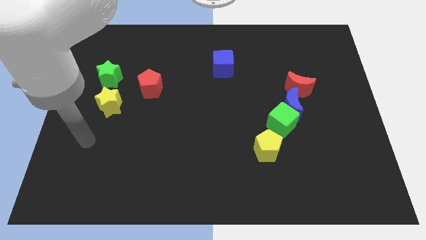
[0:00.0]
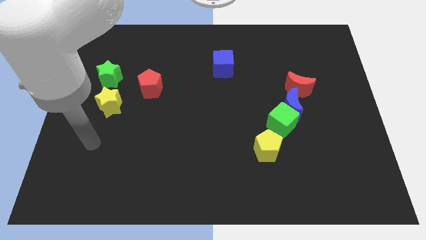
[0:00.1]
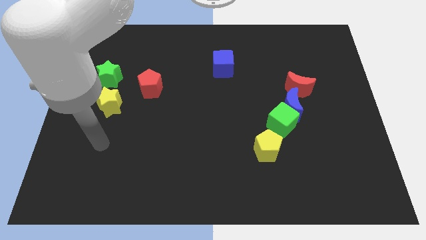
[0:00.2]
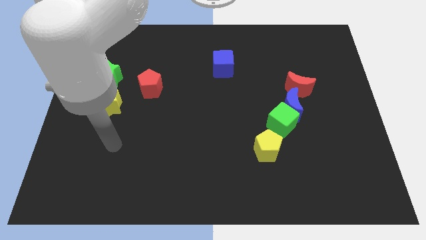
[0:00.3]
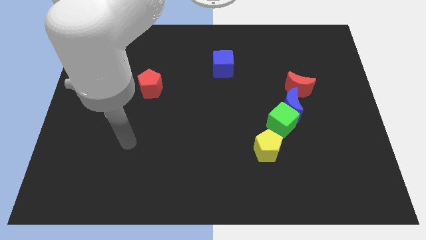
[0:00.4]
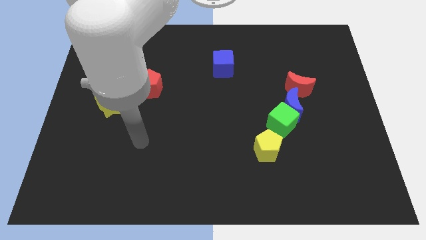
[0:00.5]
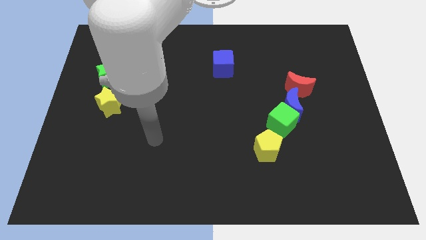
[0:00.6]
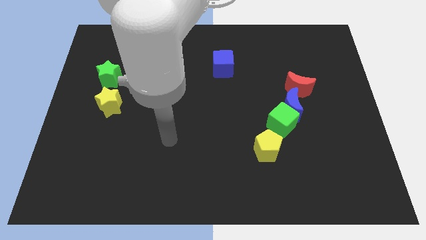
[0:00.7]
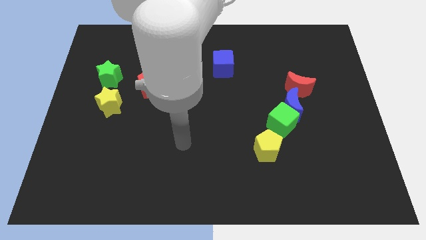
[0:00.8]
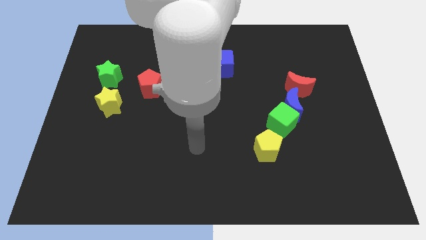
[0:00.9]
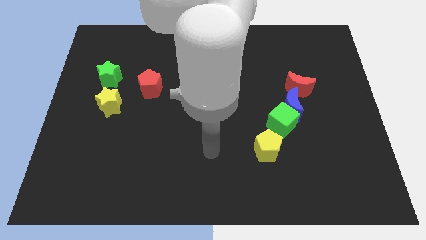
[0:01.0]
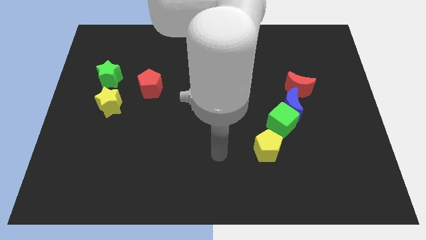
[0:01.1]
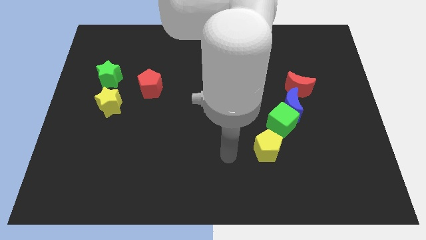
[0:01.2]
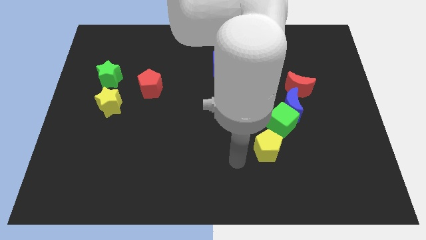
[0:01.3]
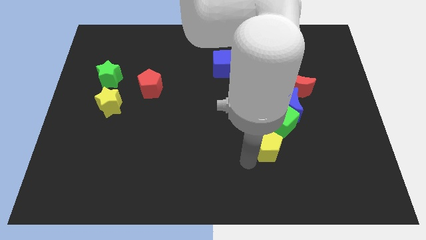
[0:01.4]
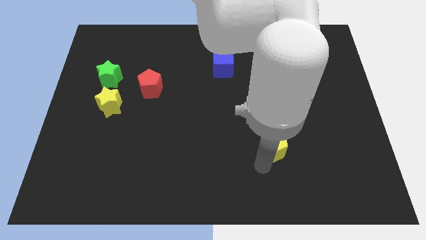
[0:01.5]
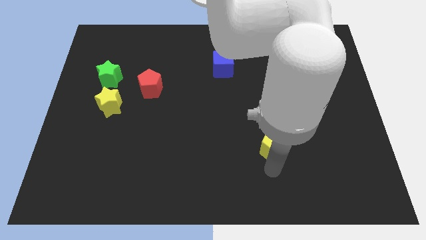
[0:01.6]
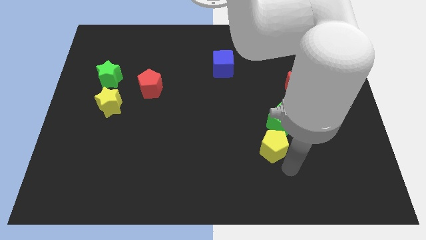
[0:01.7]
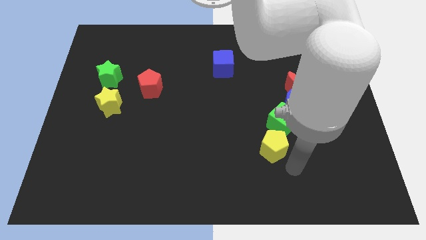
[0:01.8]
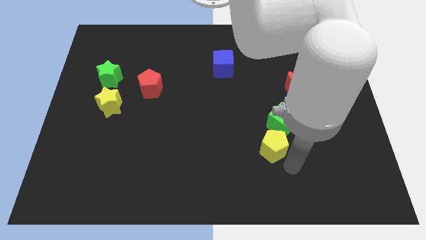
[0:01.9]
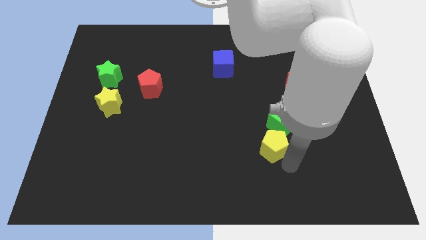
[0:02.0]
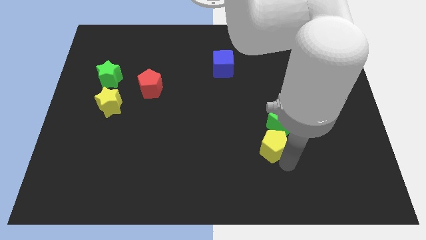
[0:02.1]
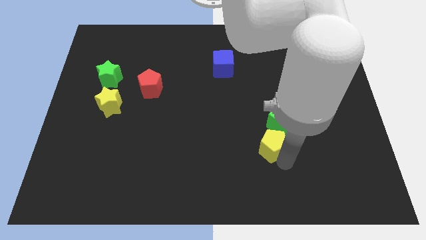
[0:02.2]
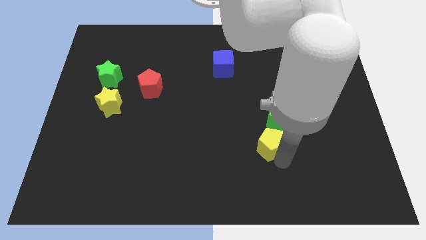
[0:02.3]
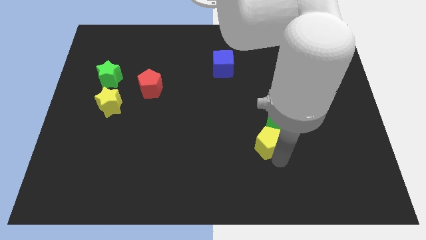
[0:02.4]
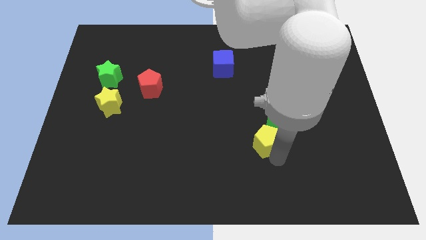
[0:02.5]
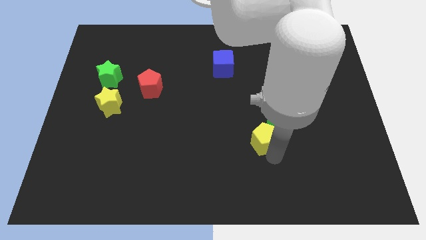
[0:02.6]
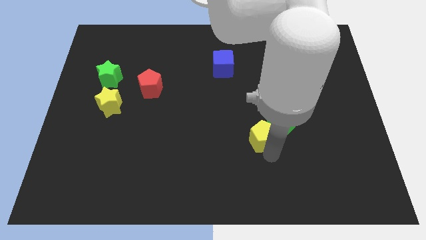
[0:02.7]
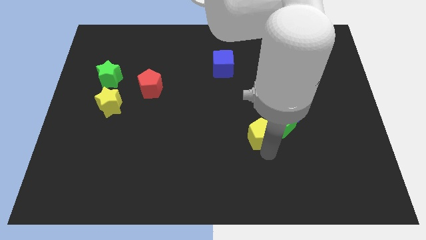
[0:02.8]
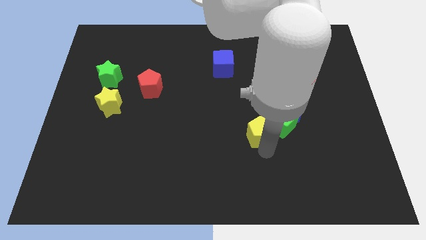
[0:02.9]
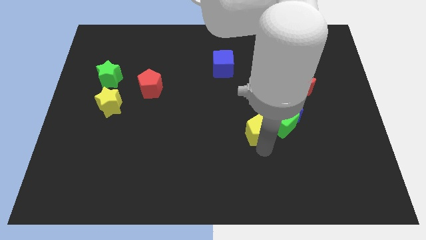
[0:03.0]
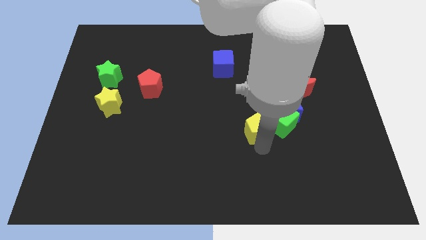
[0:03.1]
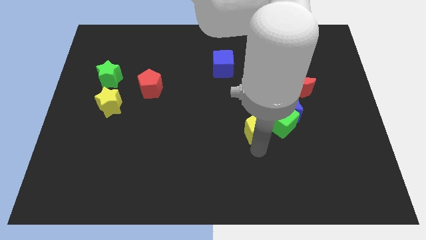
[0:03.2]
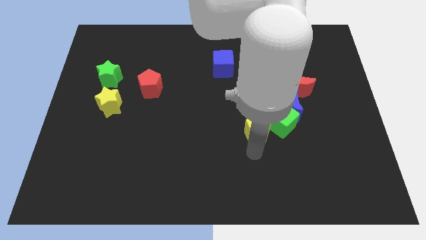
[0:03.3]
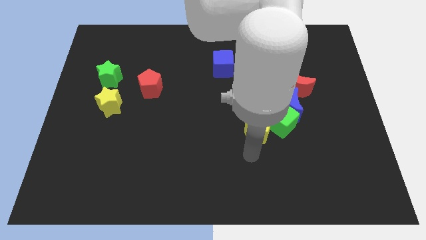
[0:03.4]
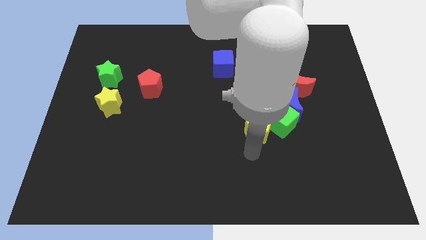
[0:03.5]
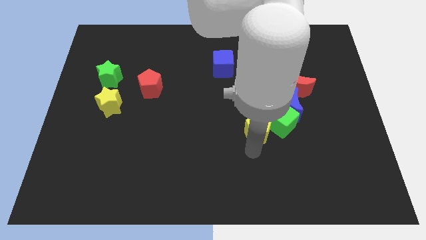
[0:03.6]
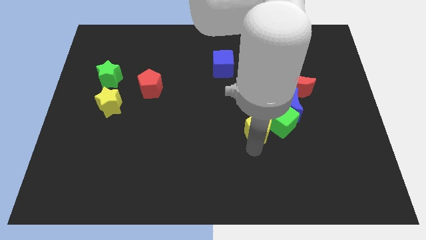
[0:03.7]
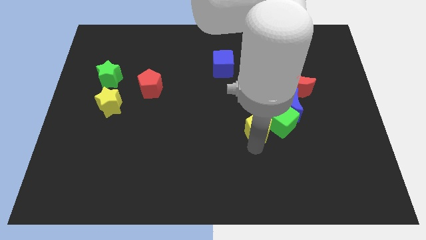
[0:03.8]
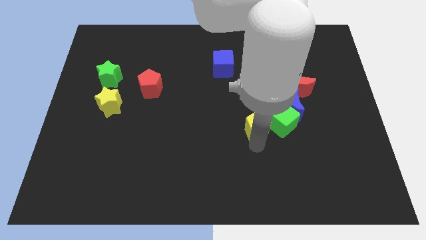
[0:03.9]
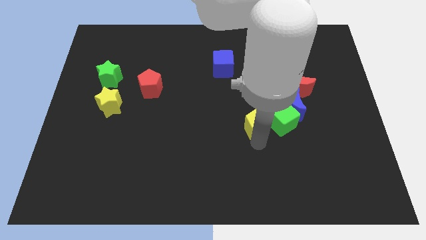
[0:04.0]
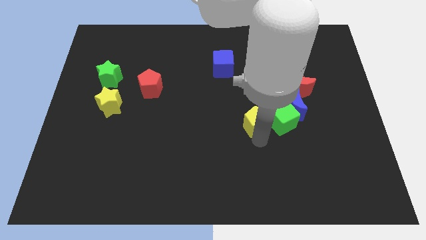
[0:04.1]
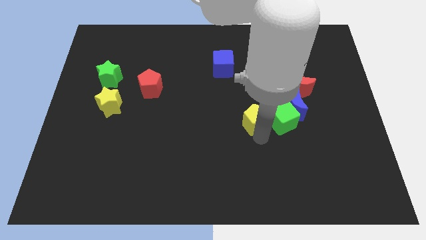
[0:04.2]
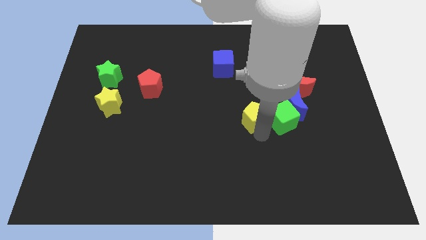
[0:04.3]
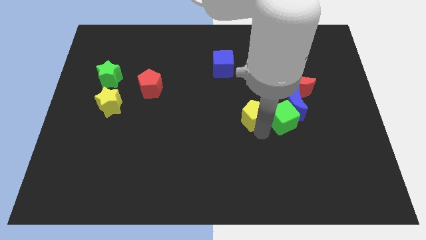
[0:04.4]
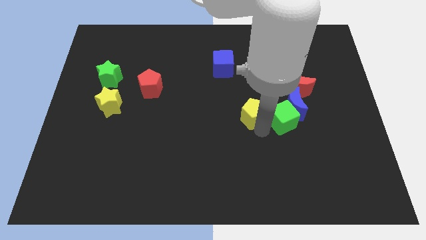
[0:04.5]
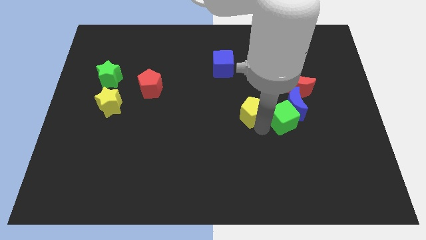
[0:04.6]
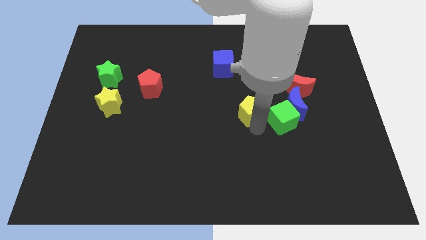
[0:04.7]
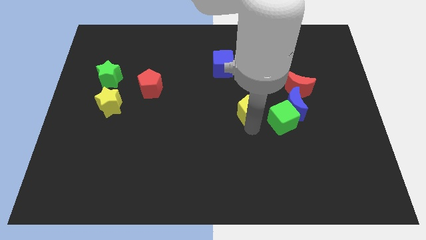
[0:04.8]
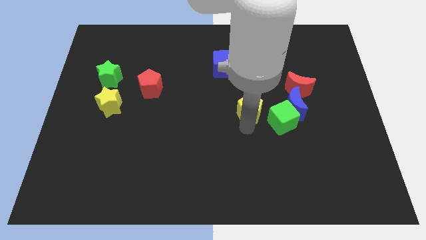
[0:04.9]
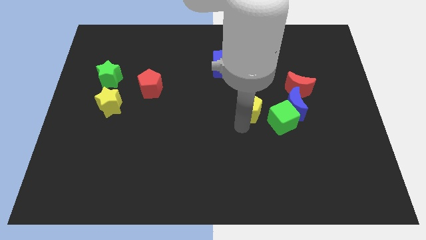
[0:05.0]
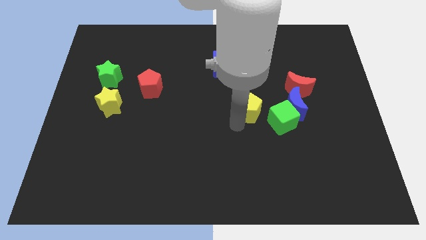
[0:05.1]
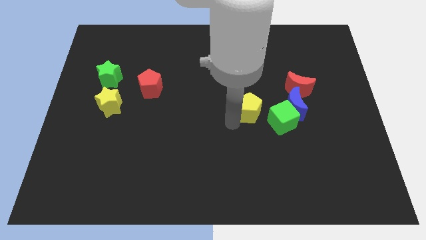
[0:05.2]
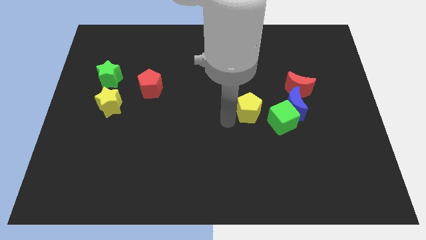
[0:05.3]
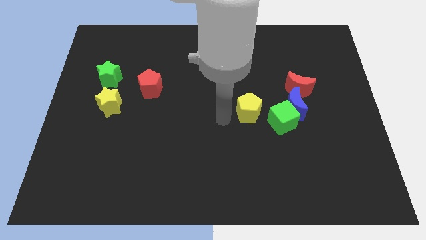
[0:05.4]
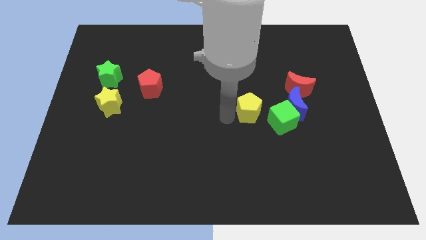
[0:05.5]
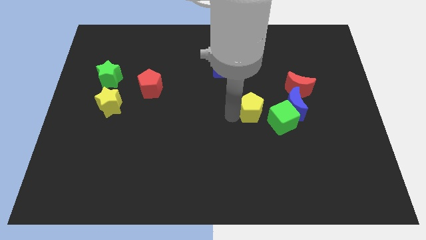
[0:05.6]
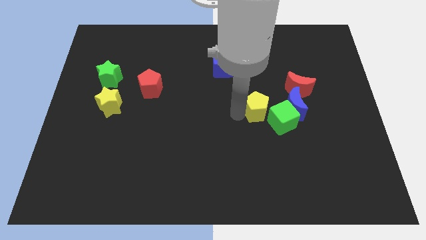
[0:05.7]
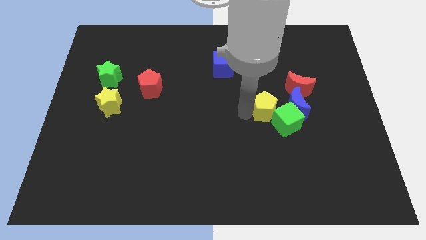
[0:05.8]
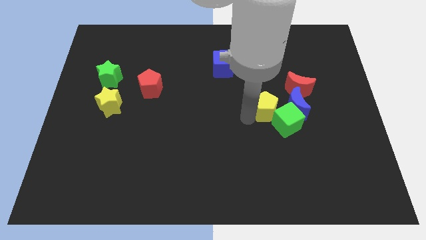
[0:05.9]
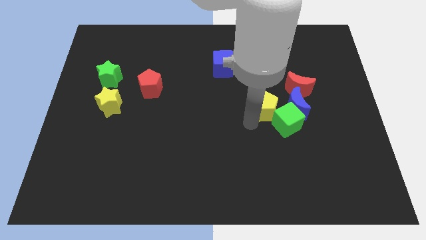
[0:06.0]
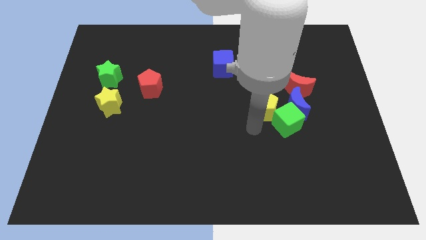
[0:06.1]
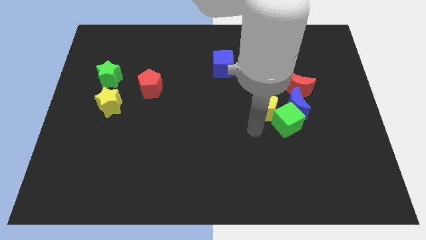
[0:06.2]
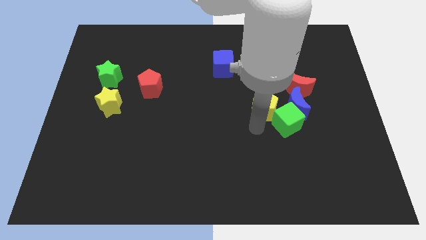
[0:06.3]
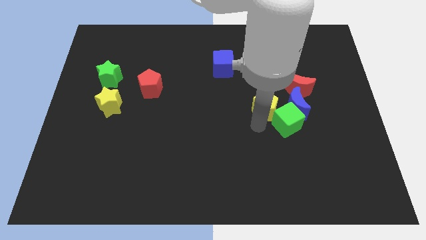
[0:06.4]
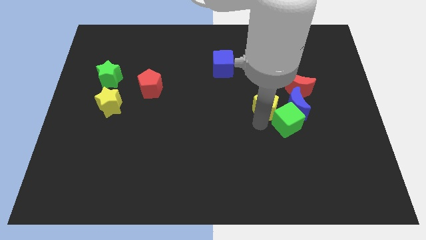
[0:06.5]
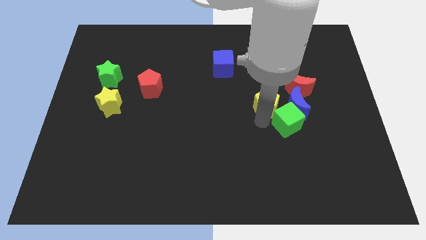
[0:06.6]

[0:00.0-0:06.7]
put the yellow pentagon to the top left of the blue moon

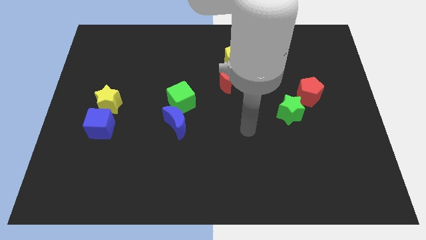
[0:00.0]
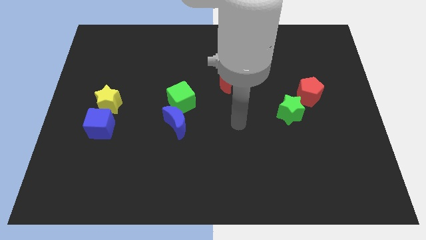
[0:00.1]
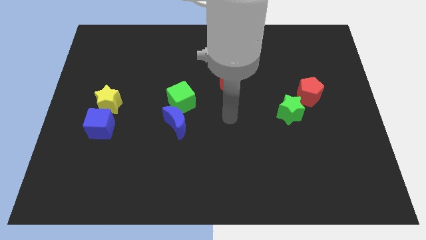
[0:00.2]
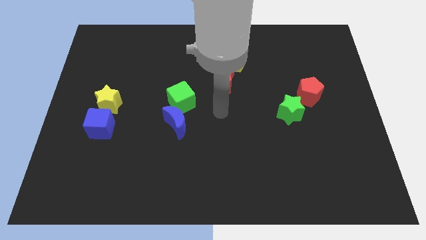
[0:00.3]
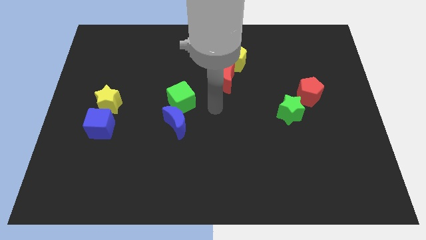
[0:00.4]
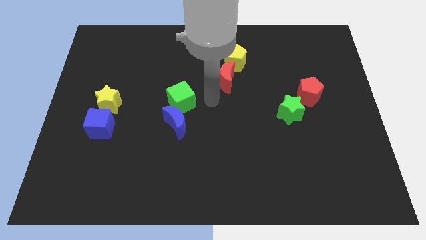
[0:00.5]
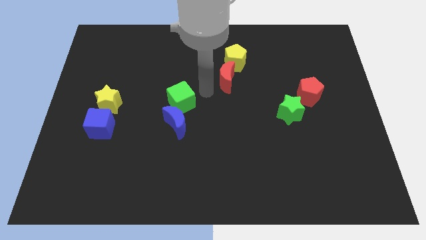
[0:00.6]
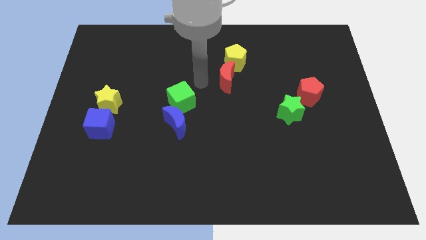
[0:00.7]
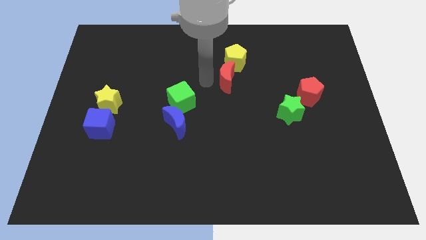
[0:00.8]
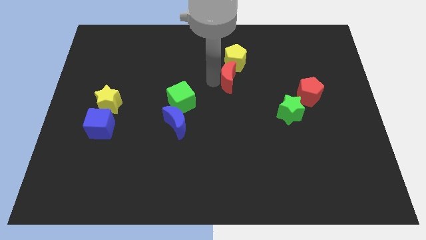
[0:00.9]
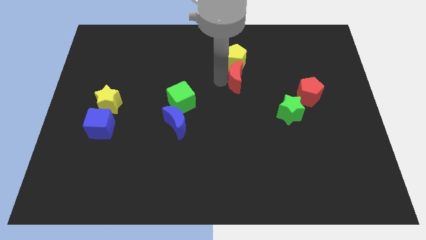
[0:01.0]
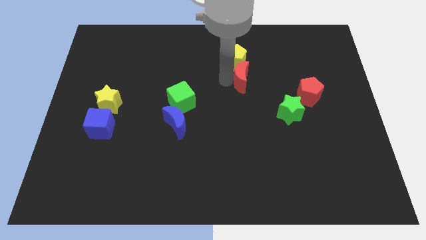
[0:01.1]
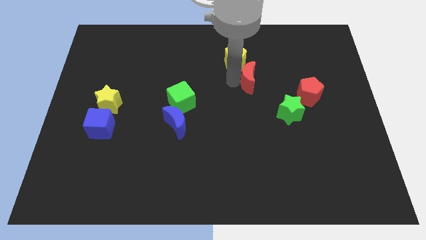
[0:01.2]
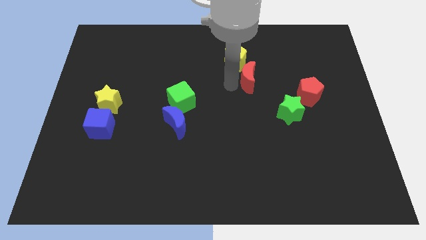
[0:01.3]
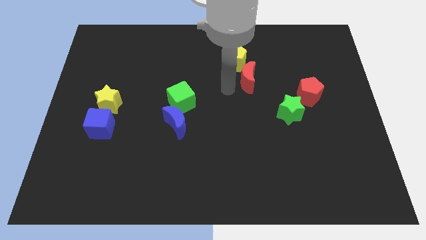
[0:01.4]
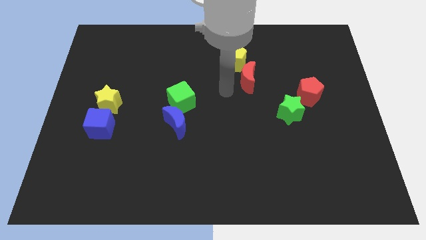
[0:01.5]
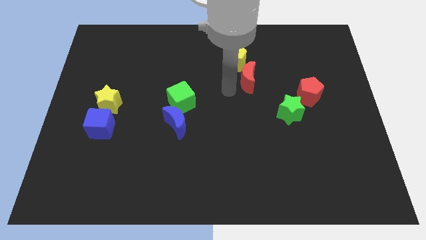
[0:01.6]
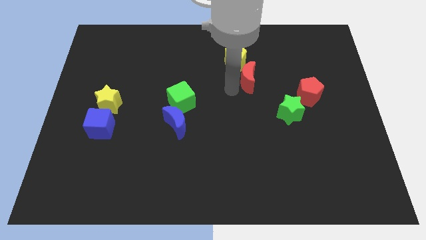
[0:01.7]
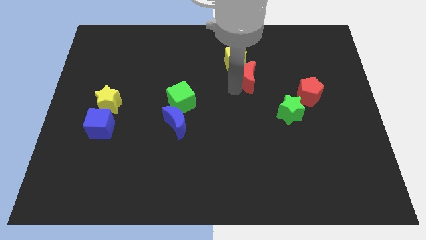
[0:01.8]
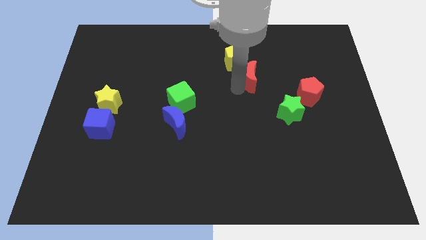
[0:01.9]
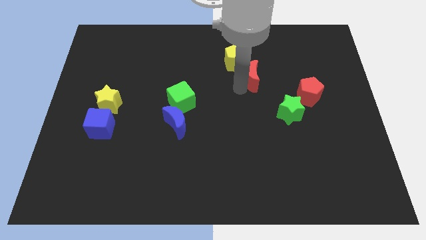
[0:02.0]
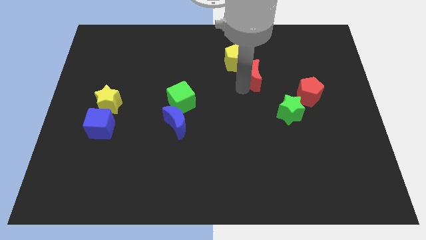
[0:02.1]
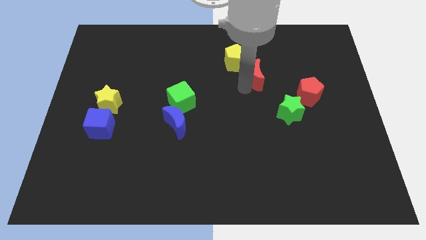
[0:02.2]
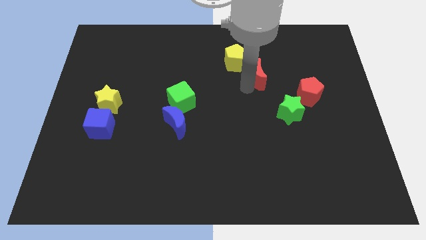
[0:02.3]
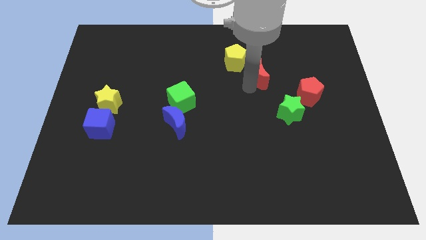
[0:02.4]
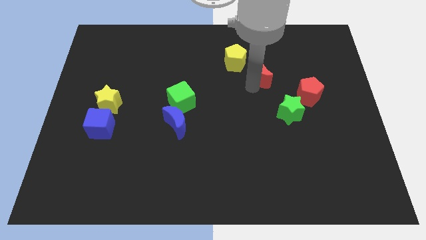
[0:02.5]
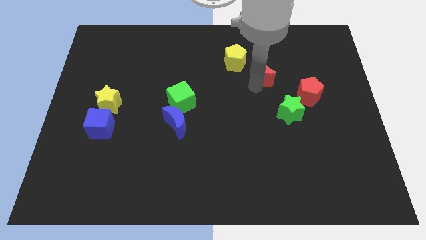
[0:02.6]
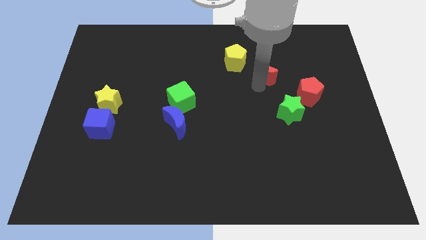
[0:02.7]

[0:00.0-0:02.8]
push the red moon right of the yellow pentagon
